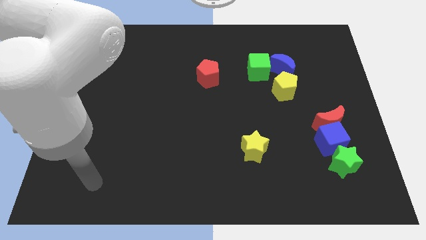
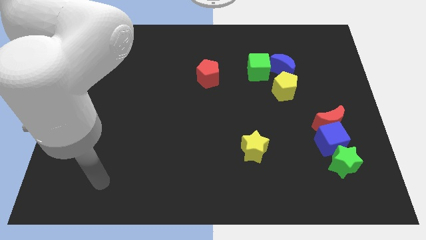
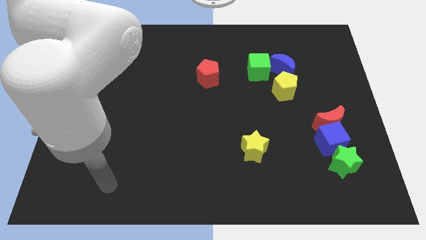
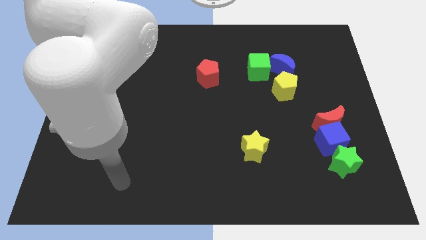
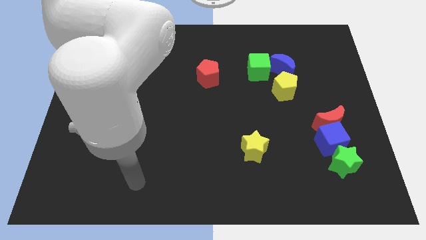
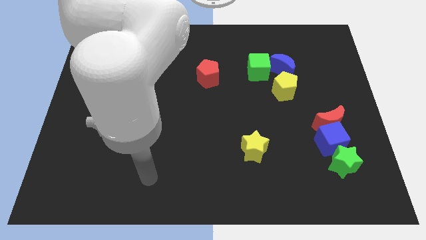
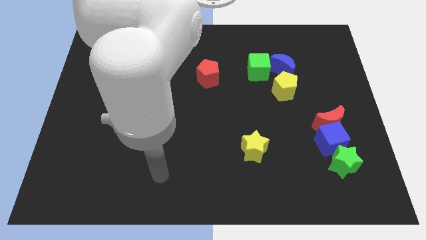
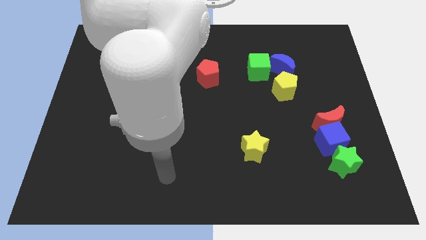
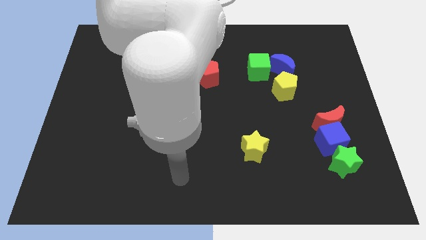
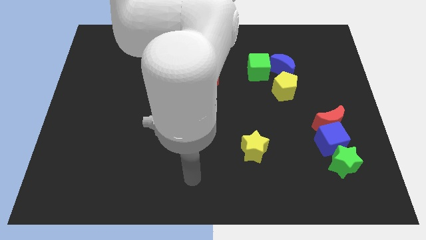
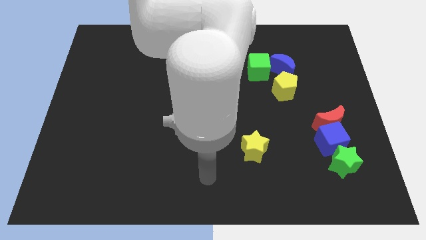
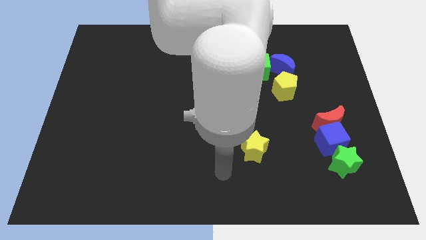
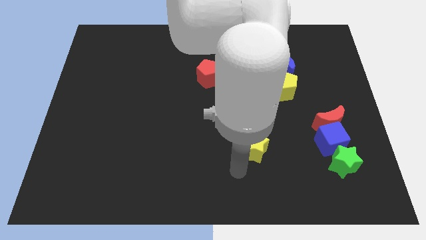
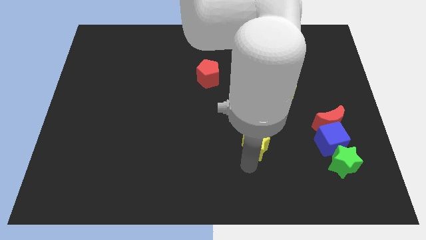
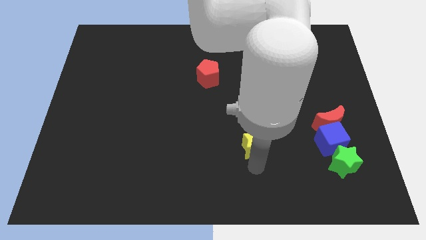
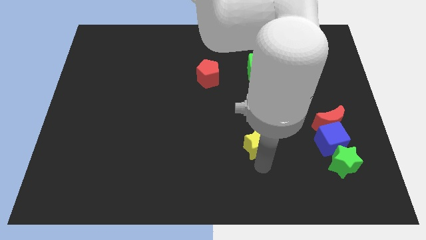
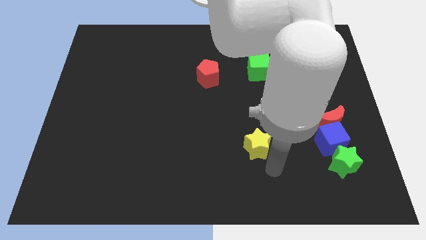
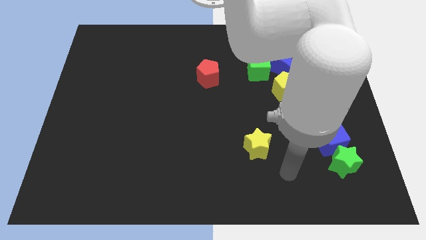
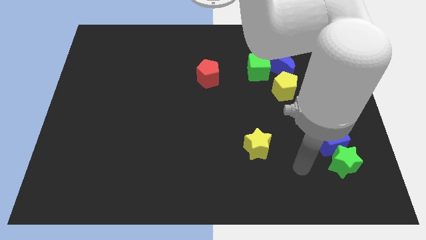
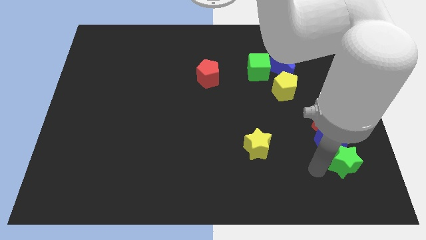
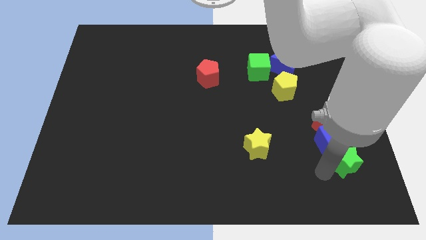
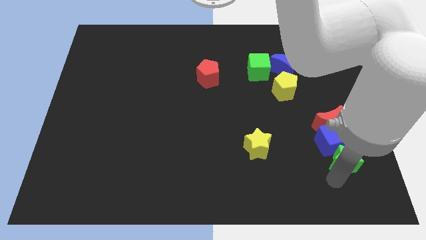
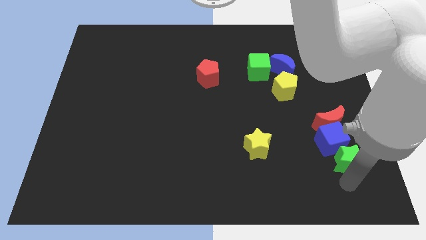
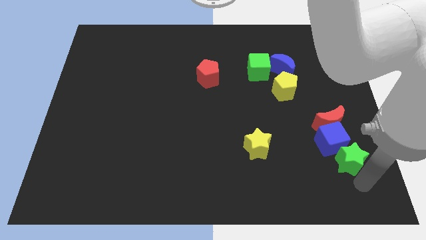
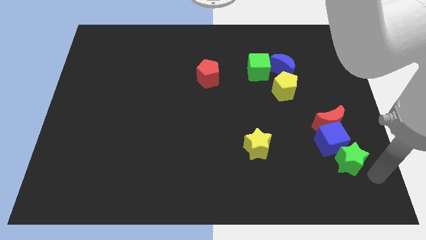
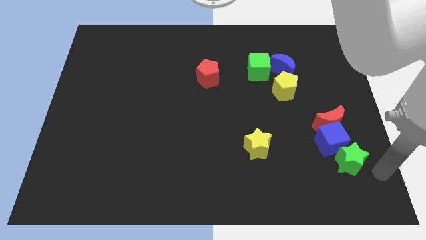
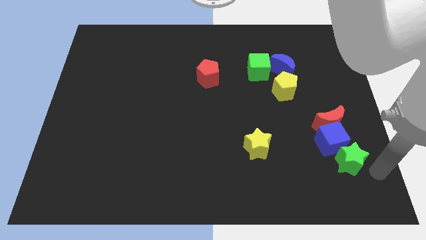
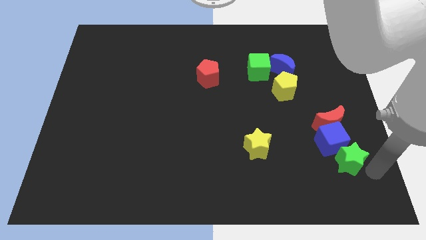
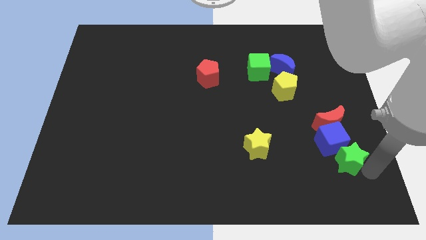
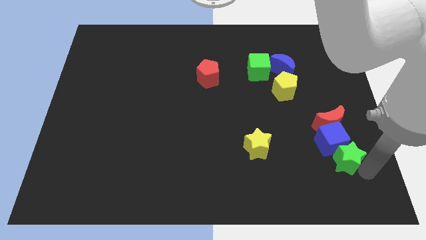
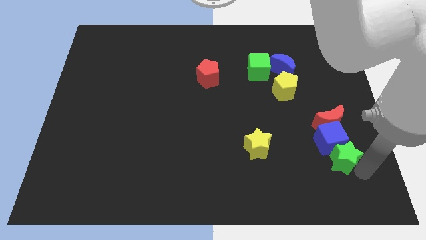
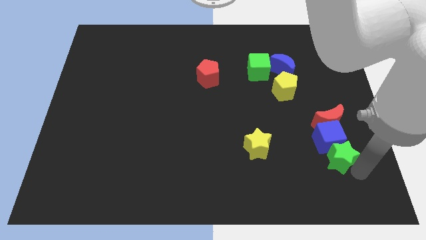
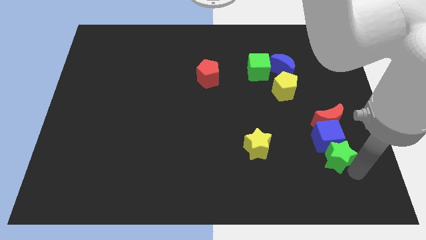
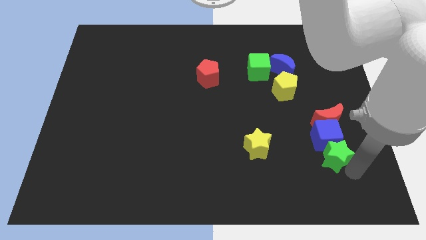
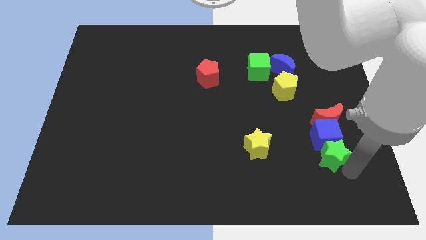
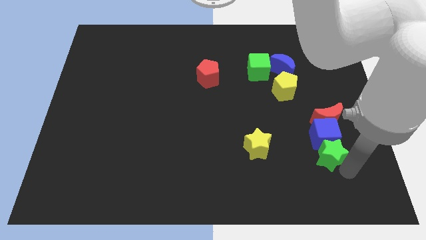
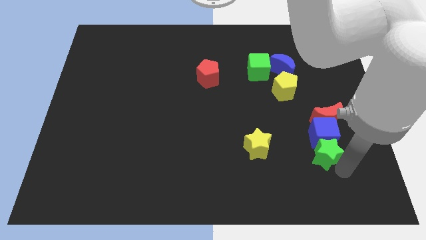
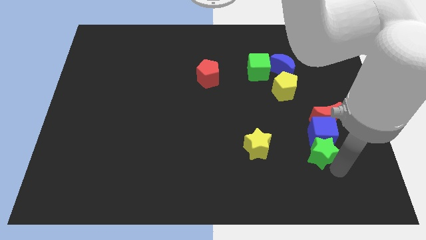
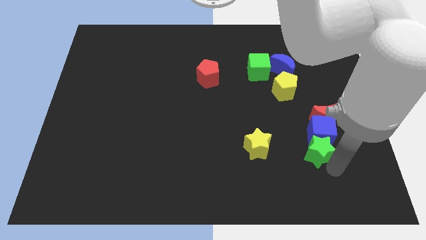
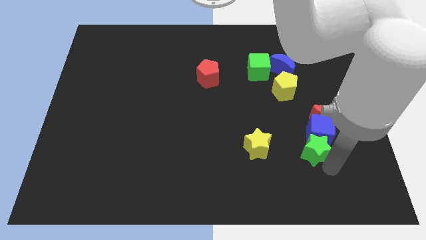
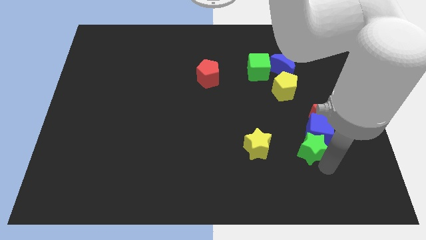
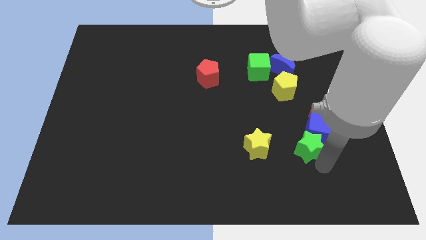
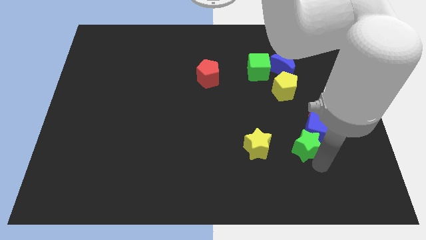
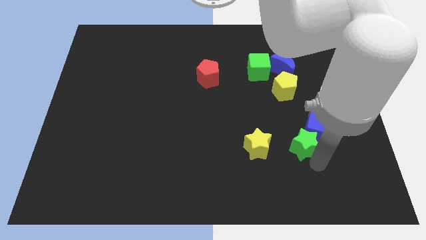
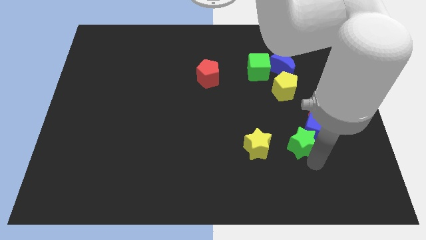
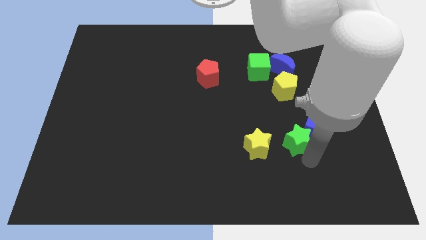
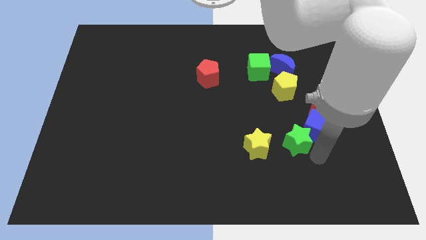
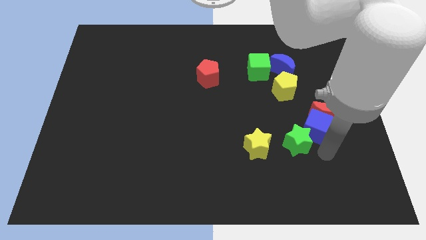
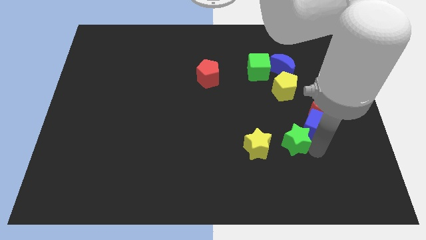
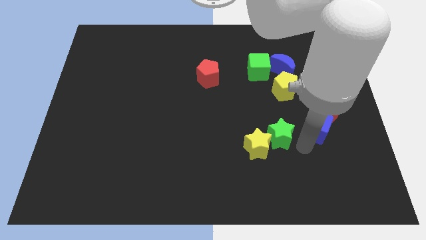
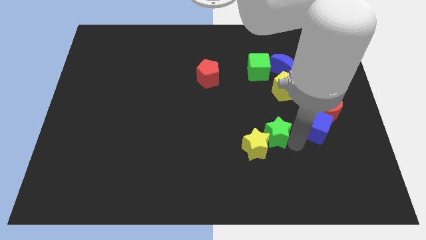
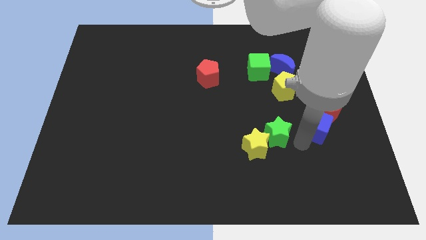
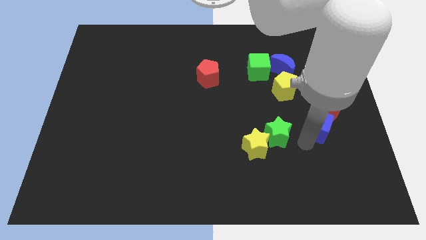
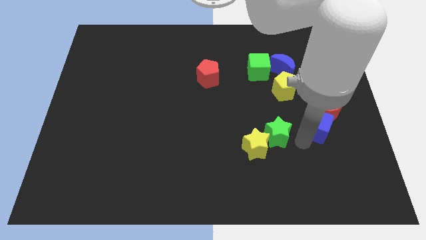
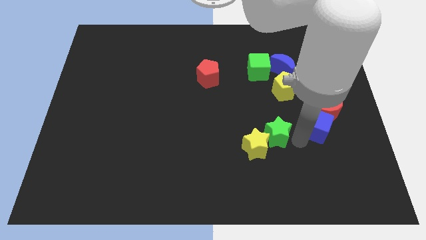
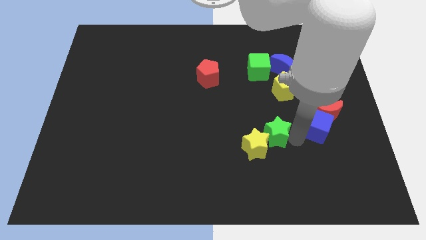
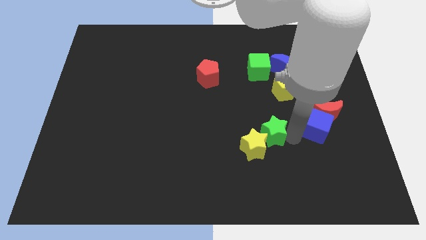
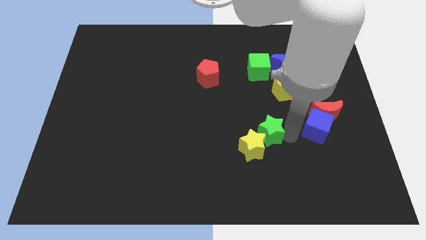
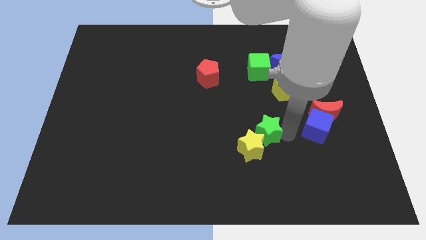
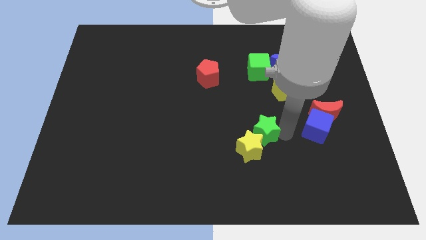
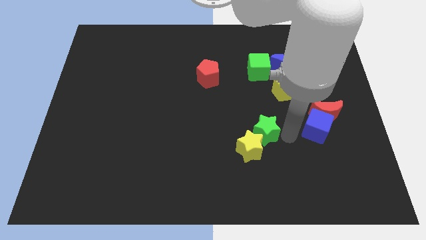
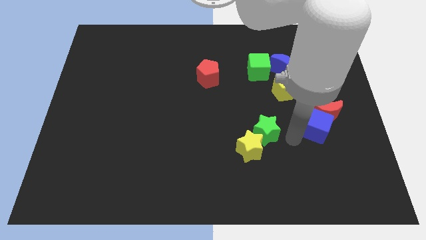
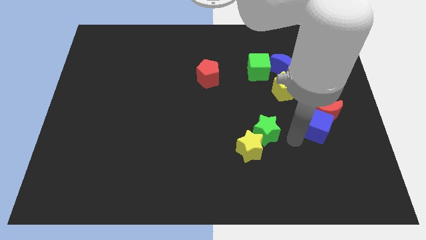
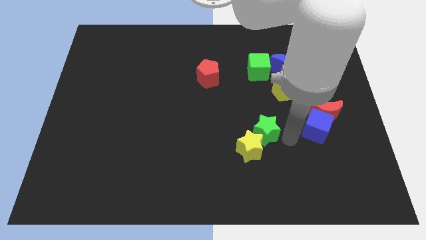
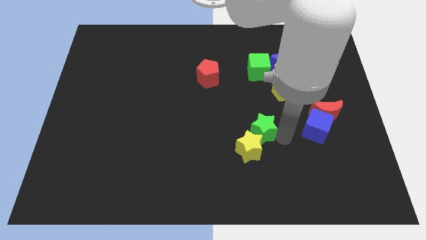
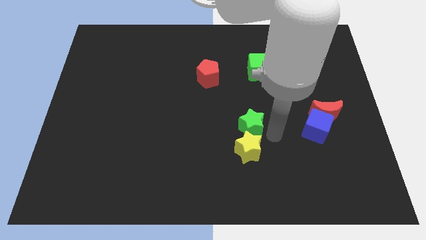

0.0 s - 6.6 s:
put the green star diagonally up and to the left of the yellow star

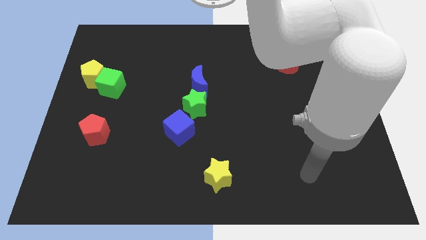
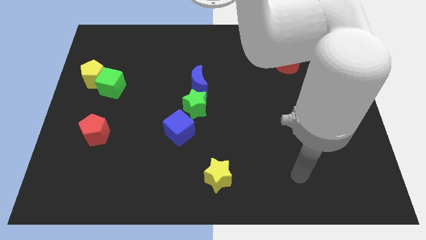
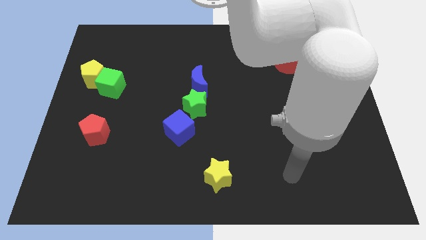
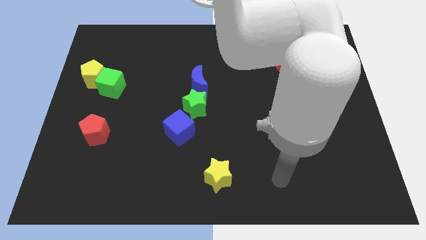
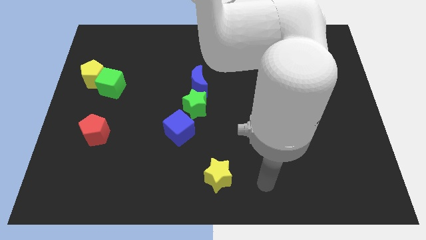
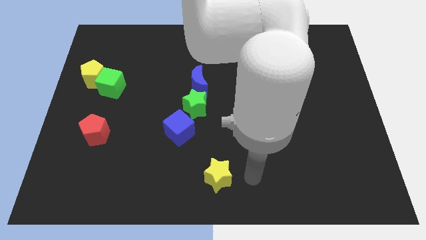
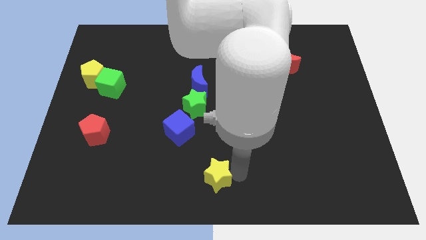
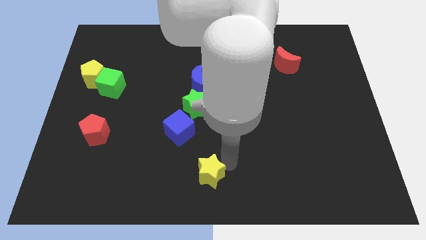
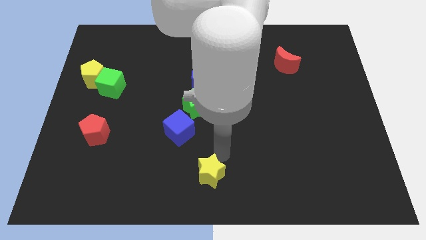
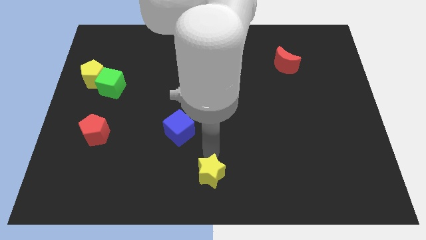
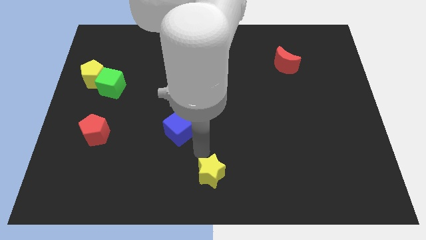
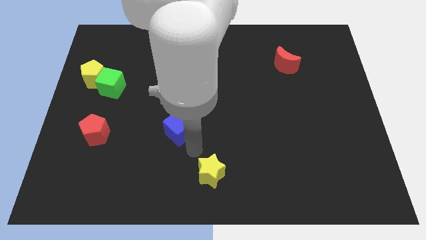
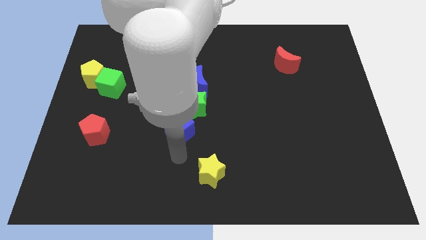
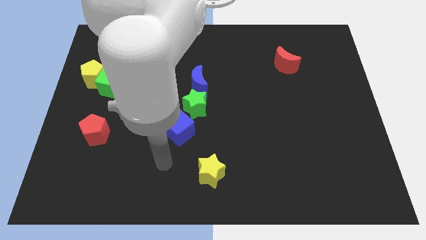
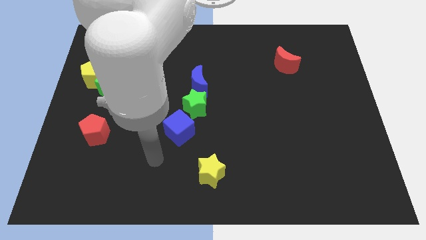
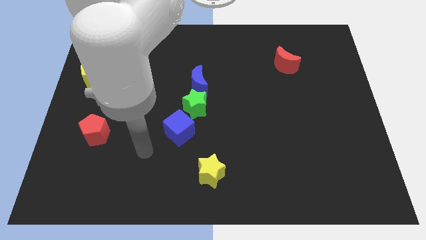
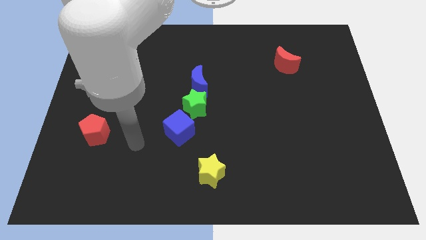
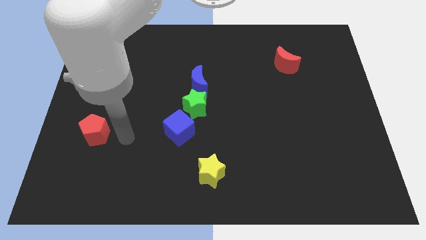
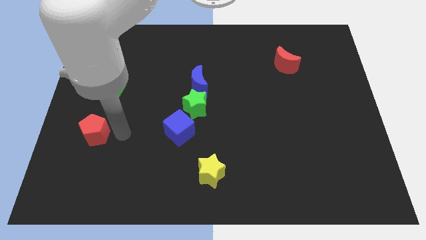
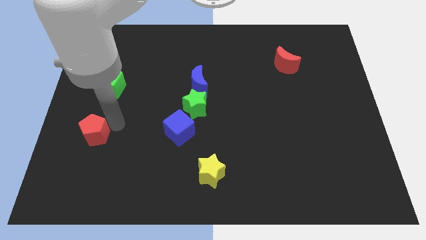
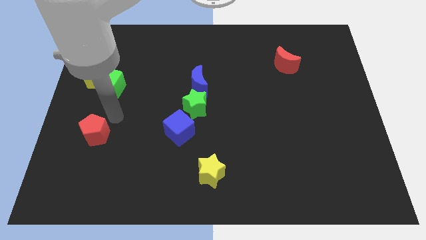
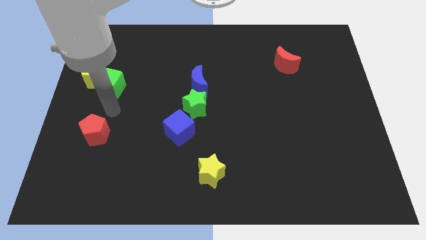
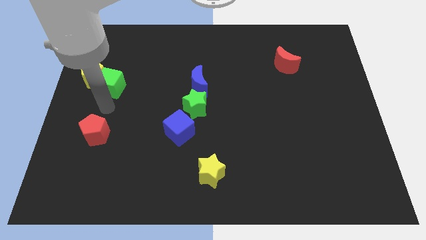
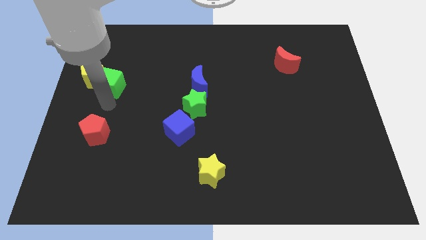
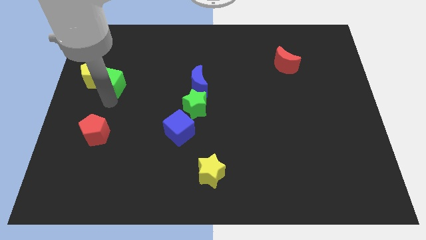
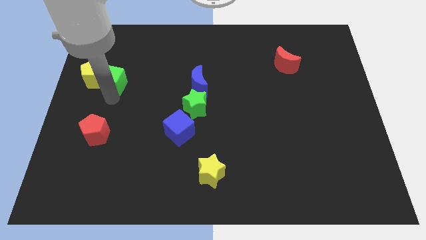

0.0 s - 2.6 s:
slide the green cube diagonally up and to the right of the yellow pentagon
